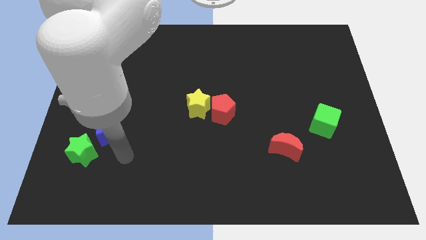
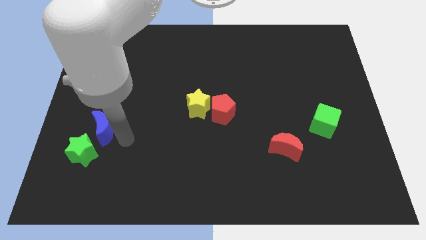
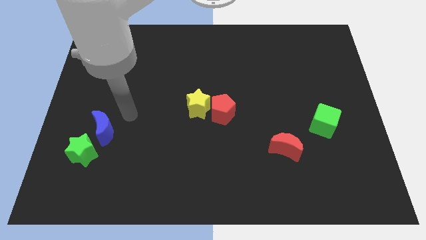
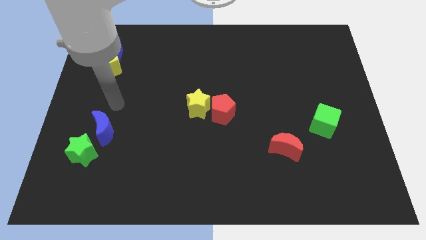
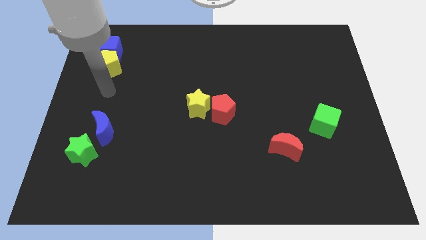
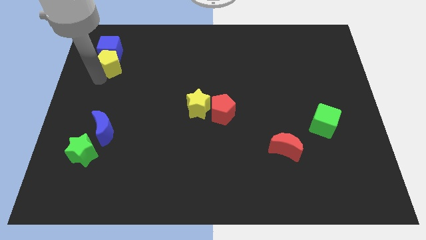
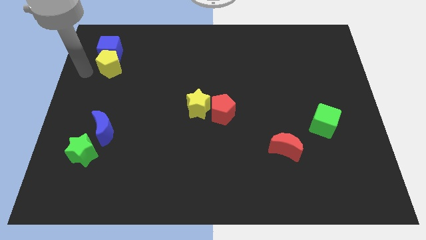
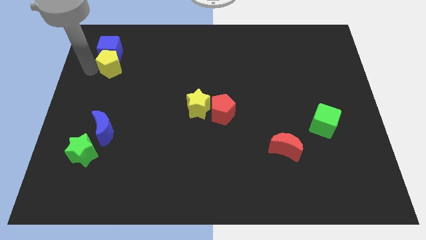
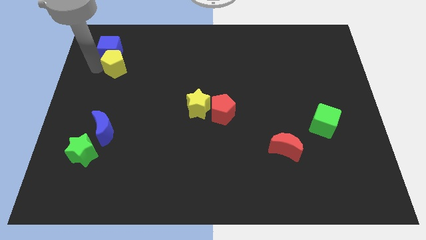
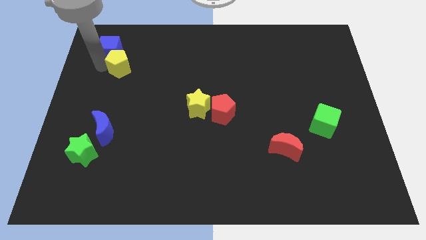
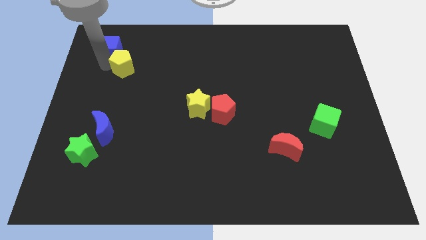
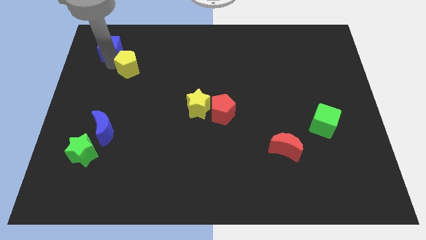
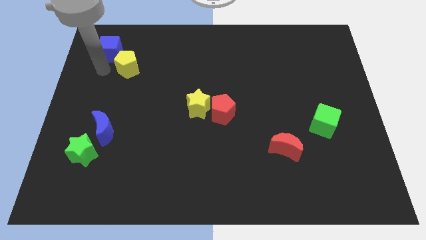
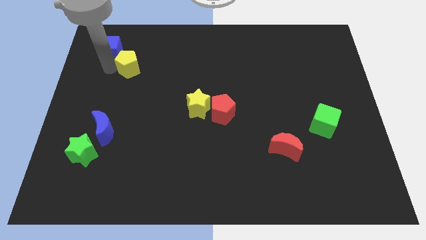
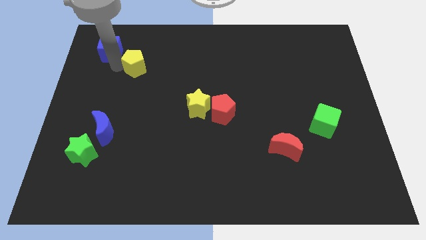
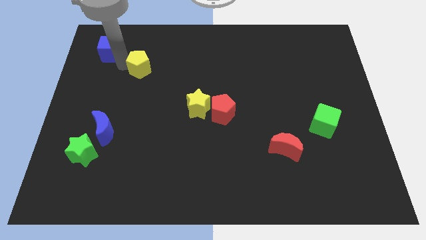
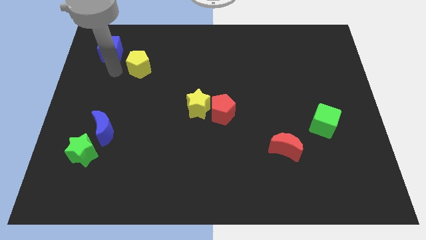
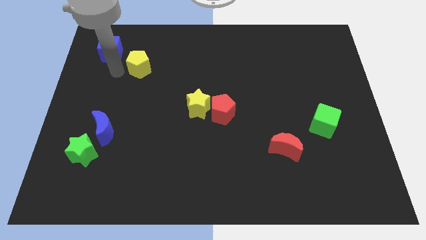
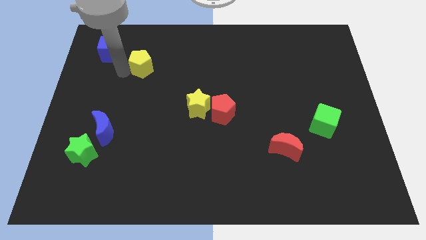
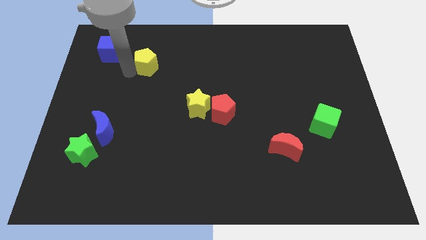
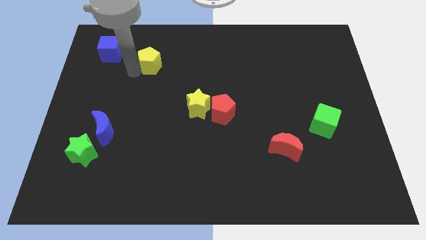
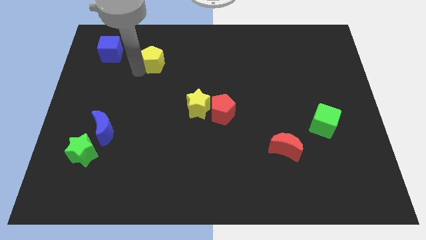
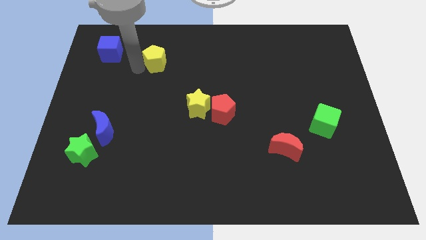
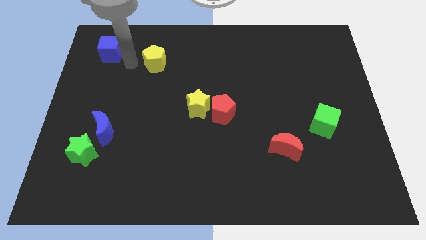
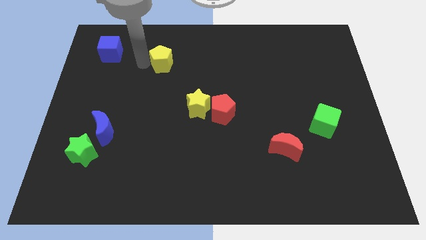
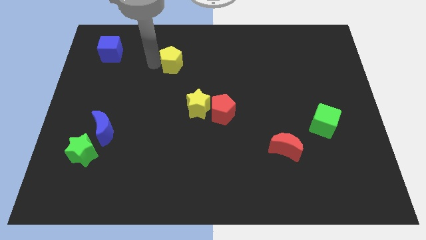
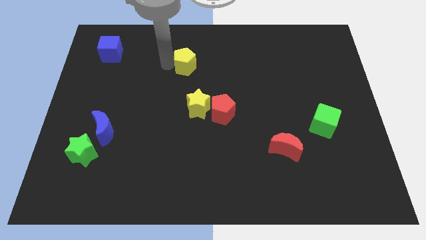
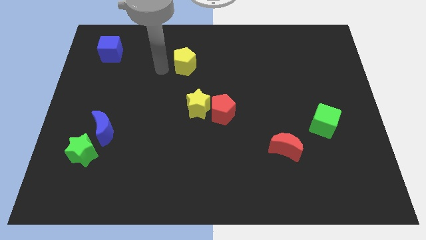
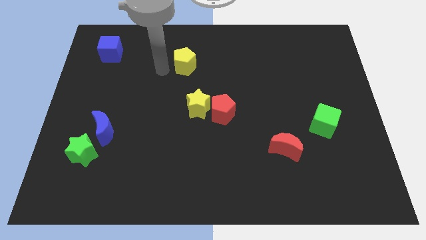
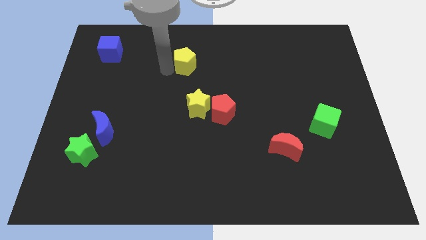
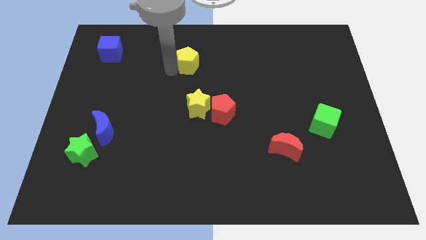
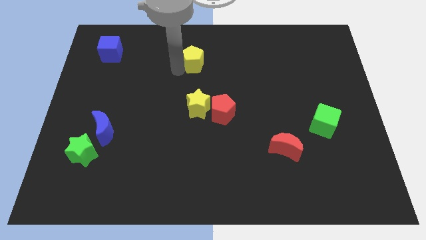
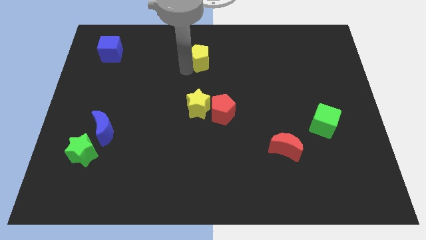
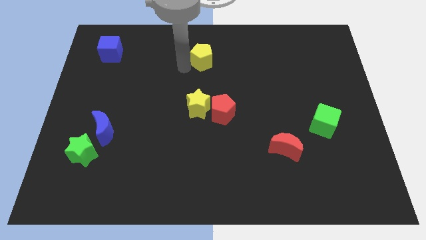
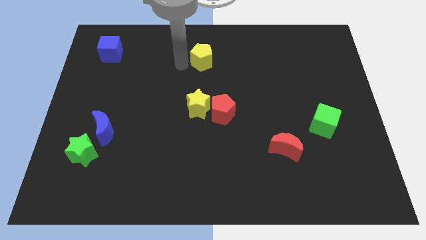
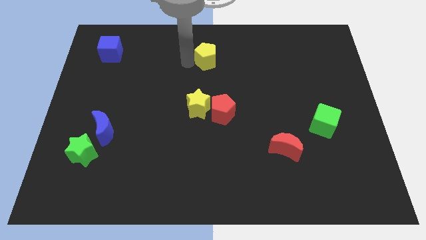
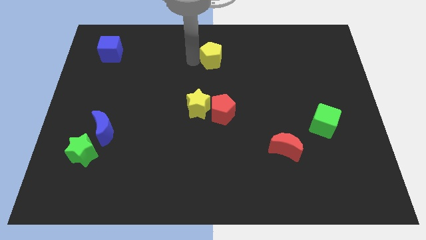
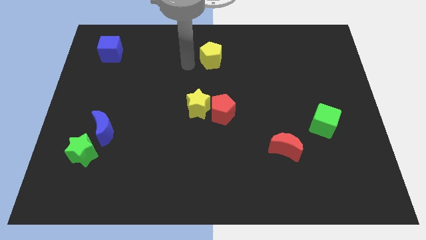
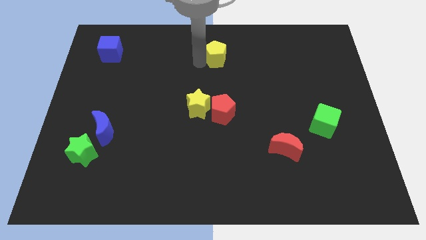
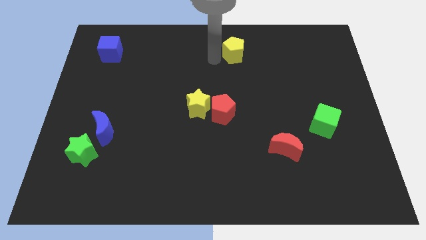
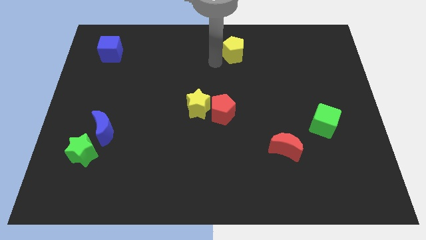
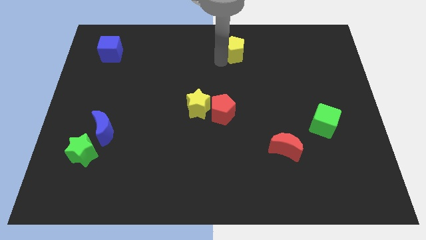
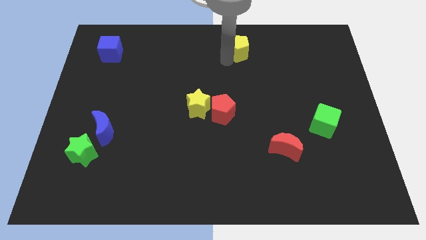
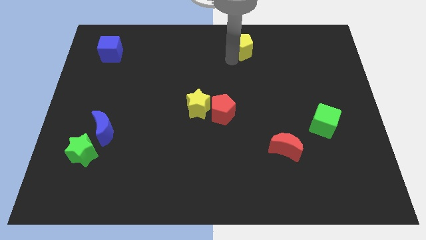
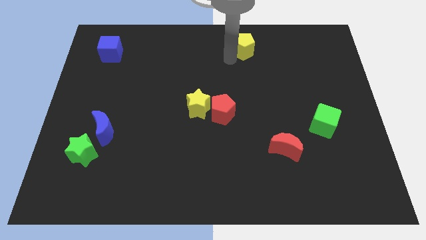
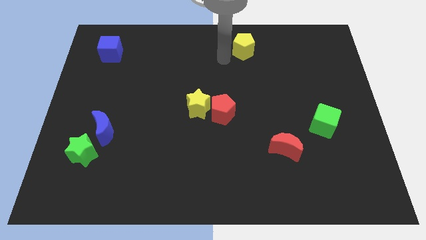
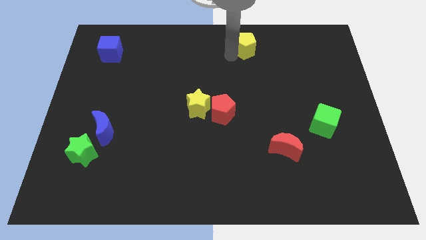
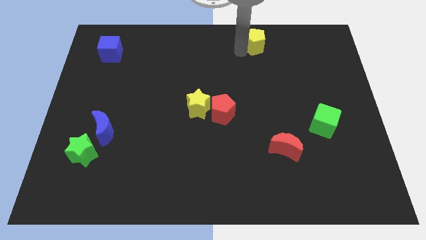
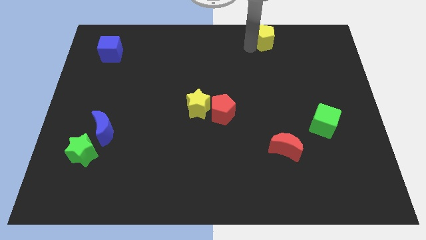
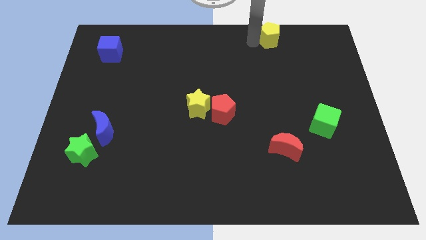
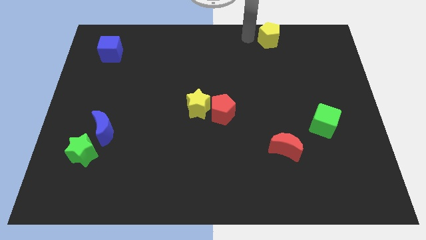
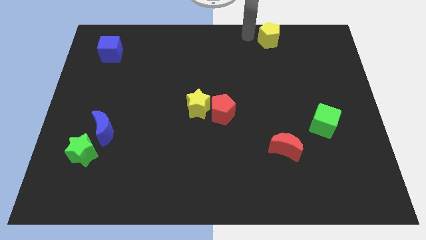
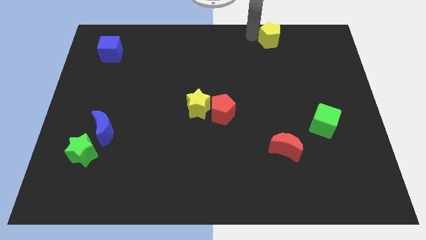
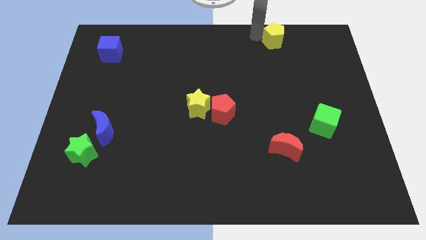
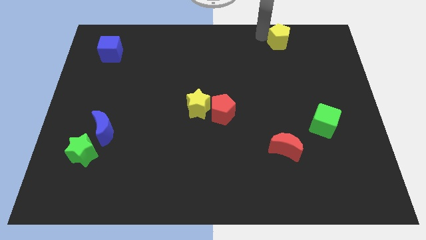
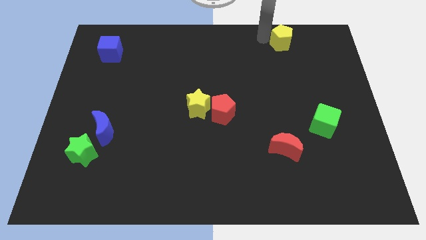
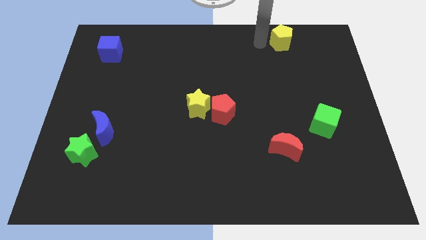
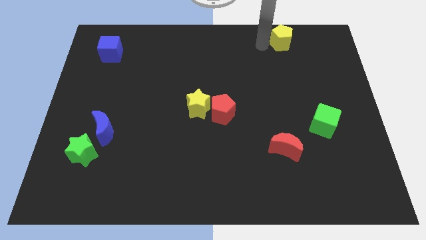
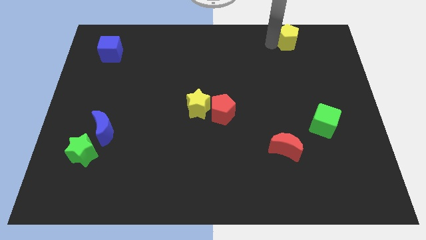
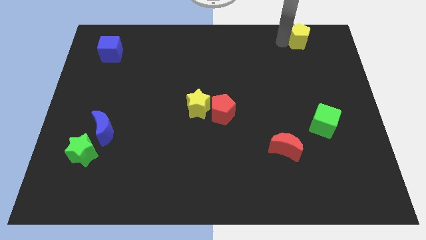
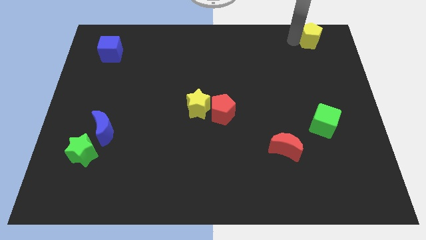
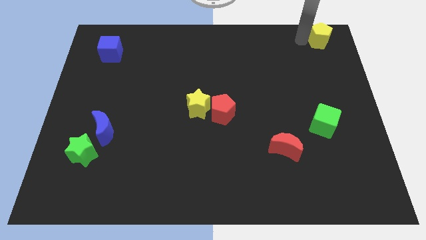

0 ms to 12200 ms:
move the yellow pentagon to the top right corner

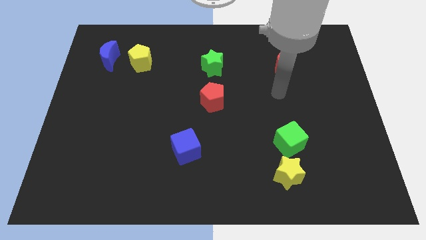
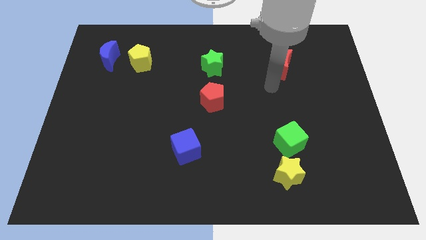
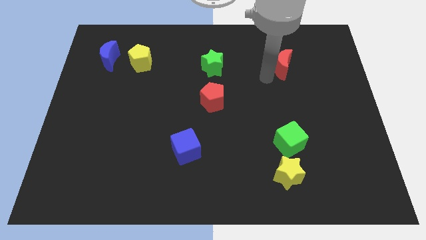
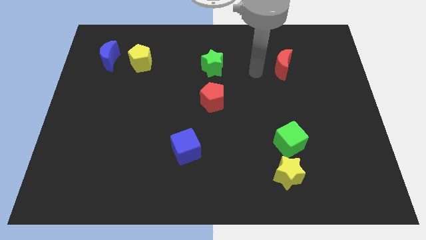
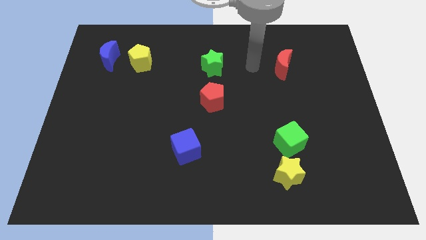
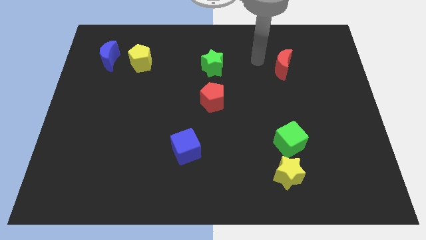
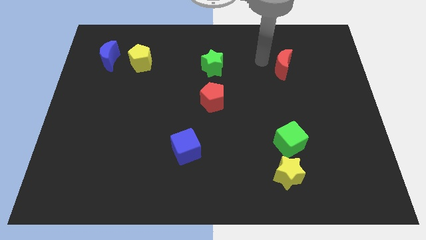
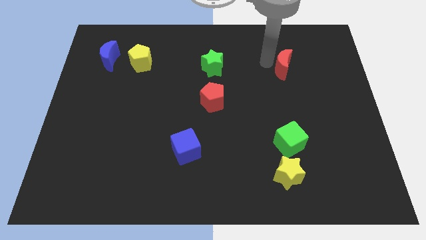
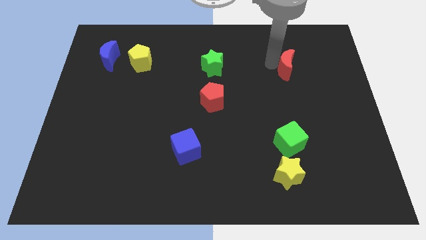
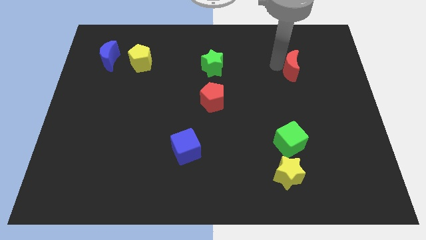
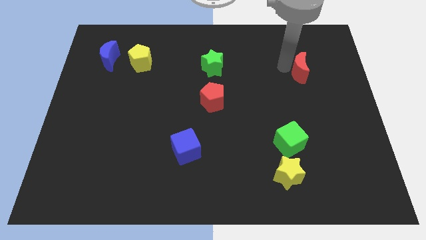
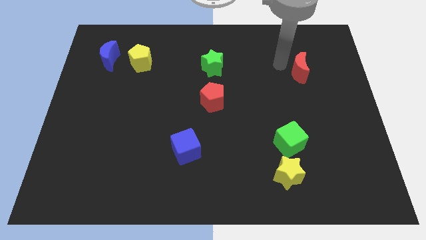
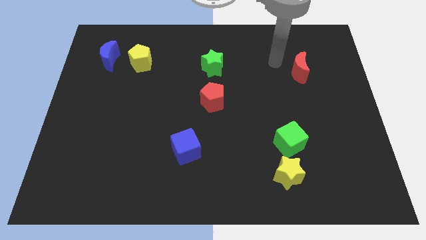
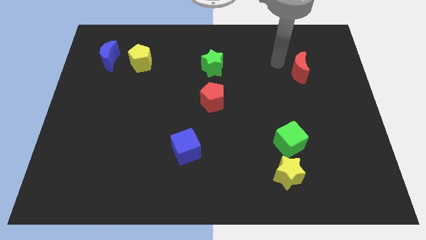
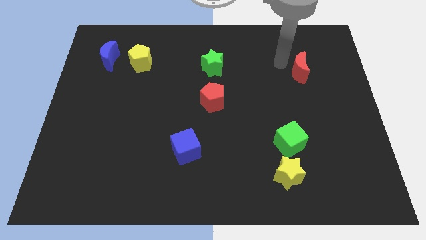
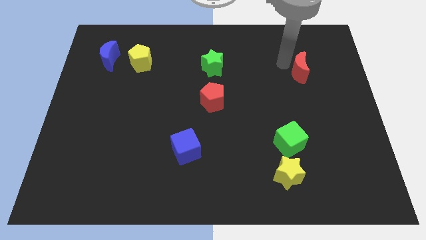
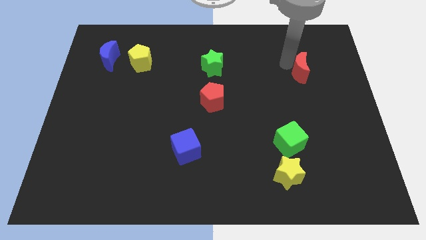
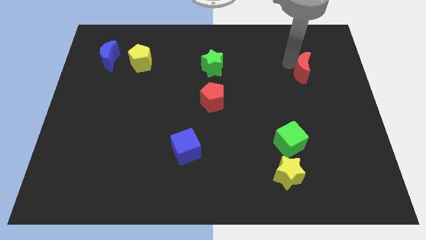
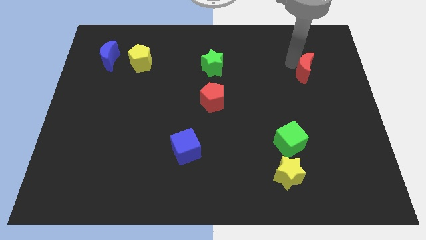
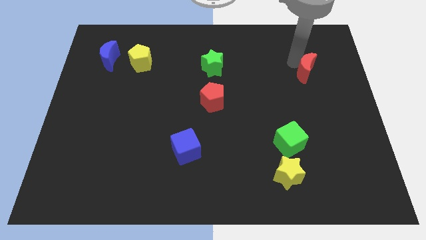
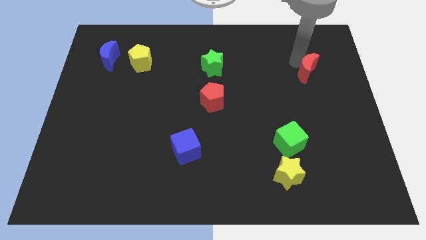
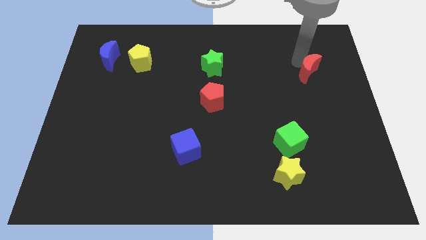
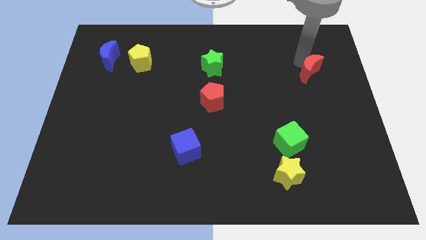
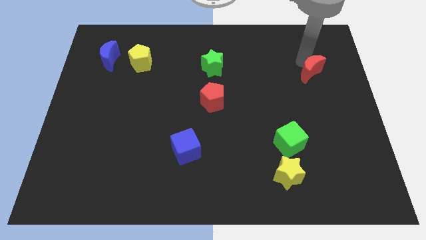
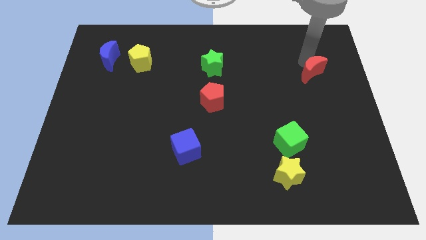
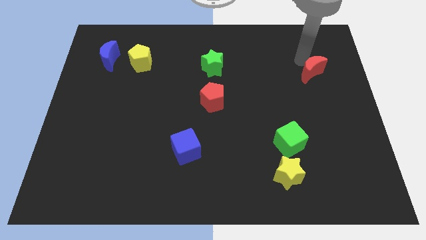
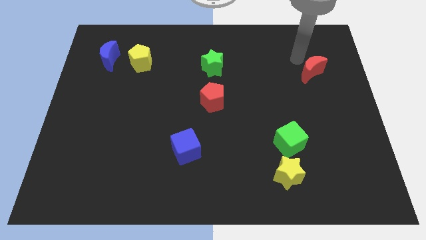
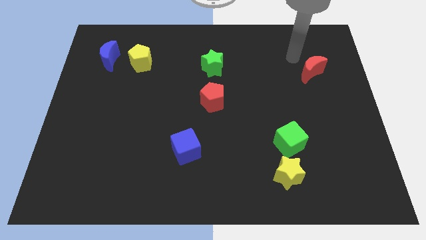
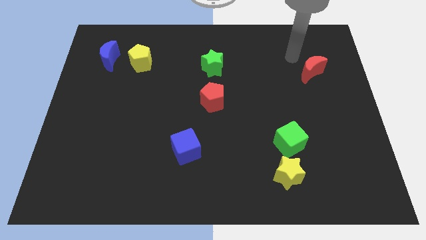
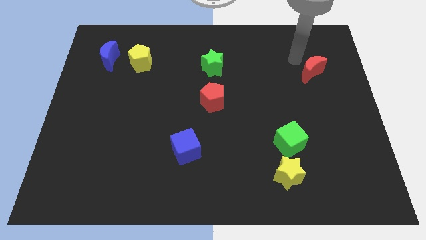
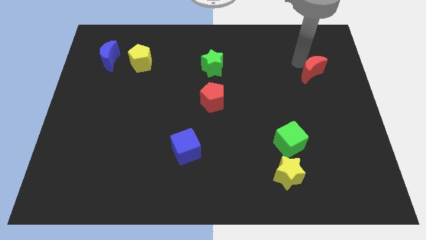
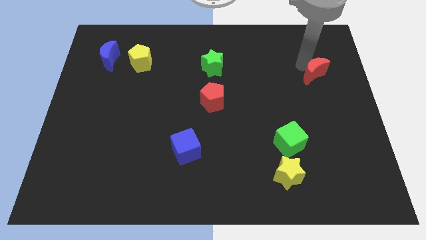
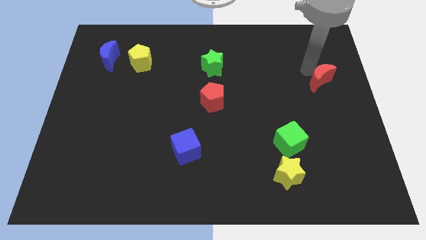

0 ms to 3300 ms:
put the red moon to the right side
